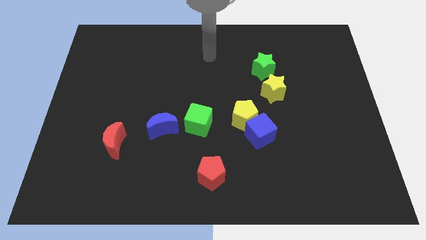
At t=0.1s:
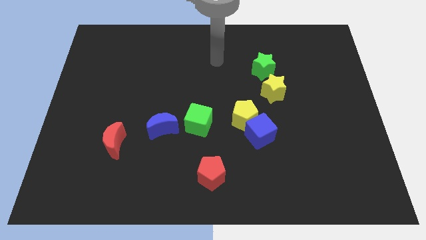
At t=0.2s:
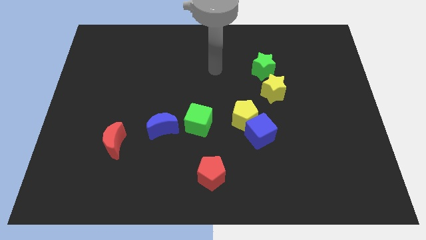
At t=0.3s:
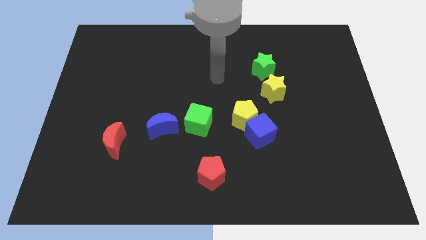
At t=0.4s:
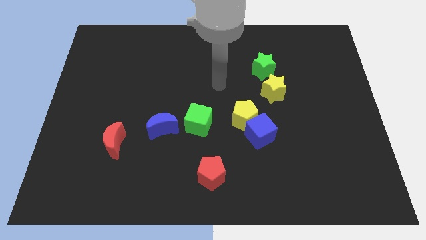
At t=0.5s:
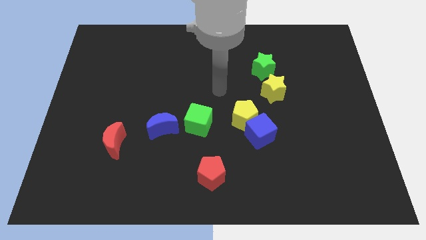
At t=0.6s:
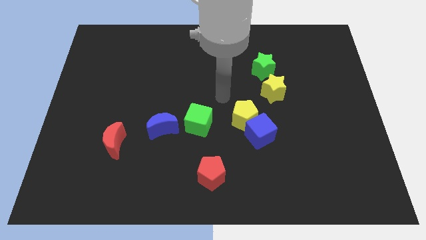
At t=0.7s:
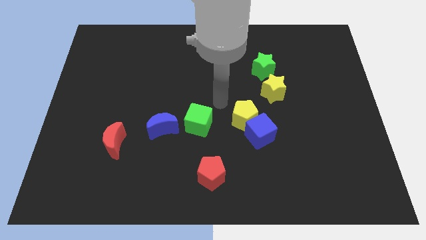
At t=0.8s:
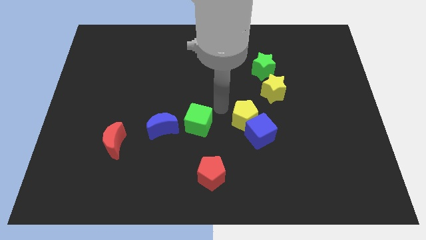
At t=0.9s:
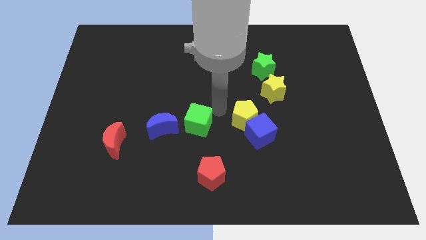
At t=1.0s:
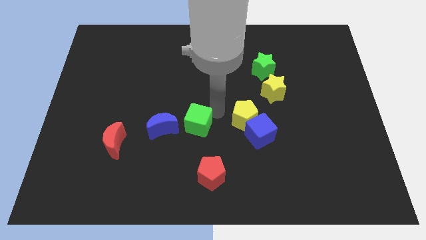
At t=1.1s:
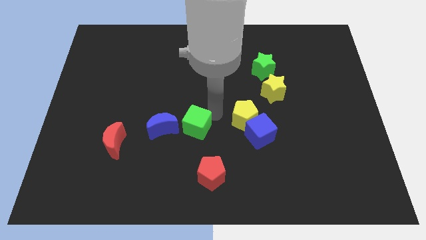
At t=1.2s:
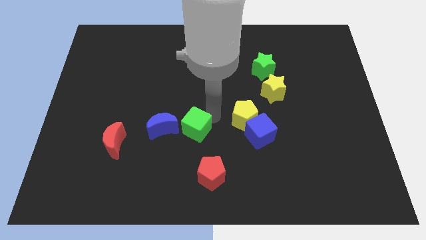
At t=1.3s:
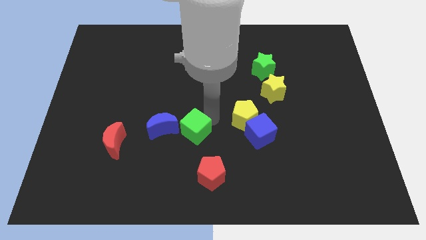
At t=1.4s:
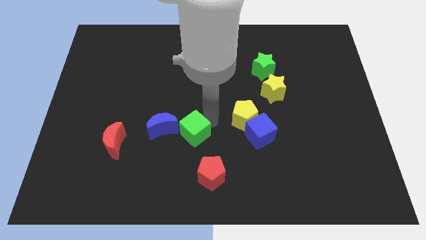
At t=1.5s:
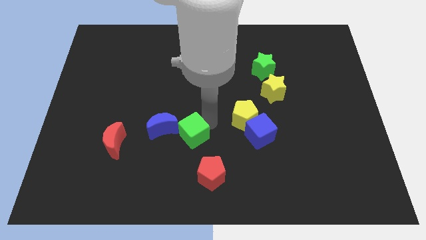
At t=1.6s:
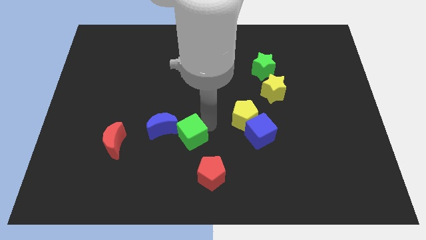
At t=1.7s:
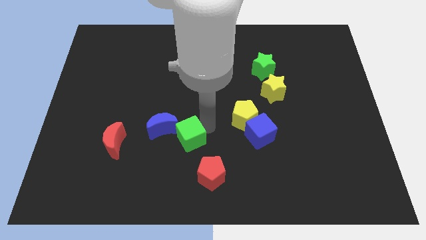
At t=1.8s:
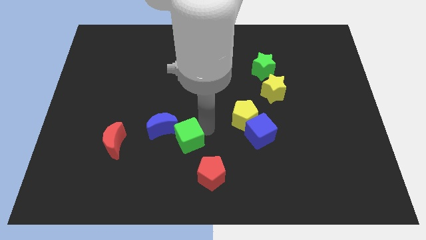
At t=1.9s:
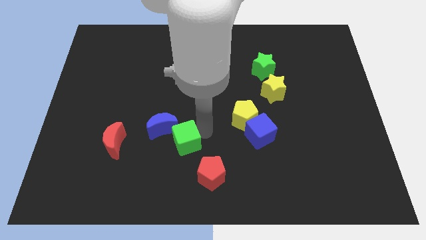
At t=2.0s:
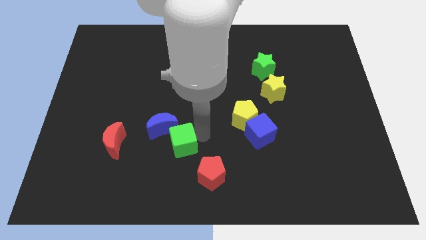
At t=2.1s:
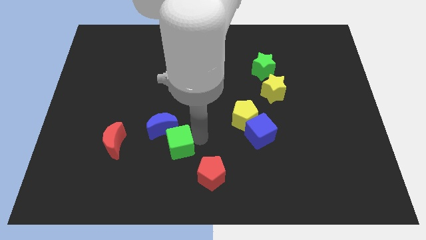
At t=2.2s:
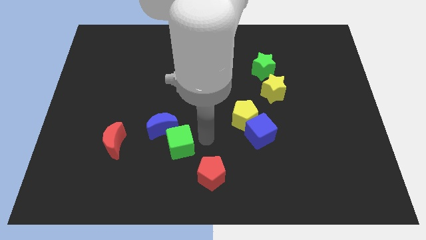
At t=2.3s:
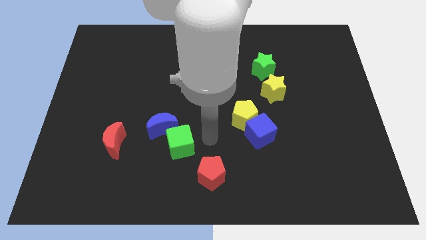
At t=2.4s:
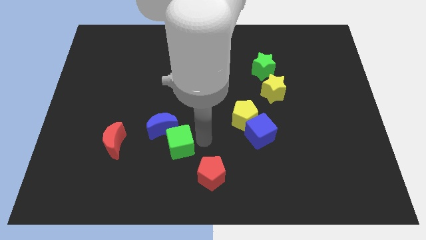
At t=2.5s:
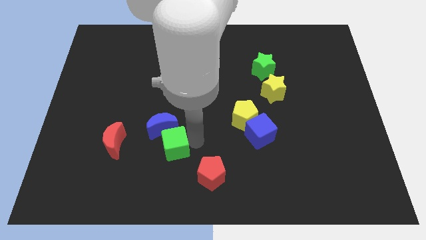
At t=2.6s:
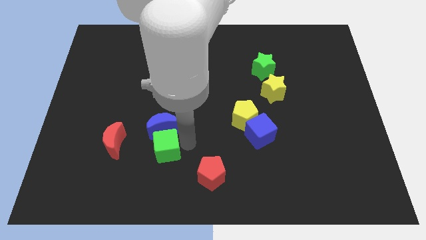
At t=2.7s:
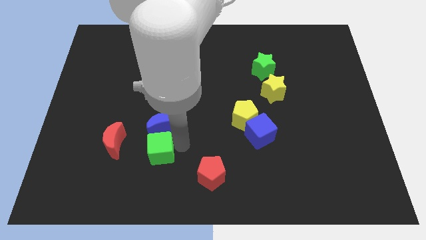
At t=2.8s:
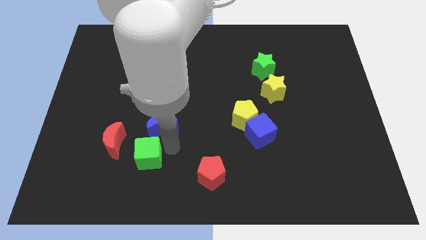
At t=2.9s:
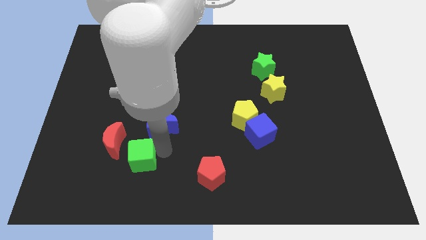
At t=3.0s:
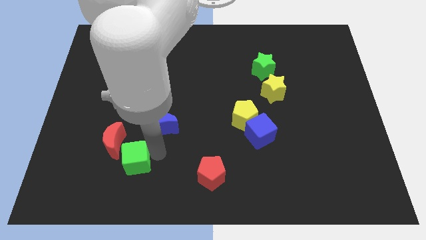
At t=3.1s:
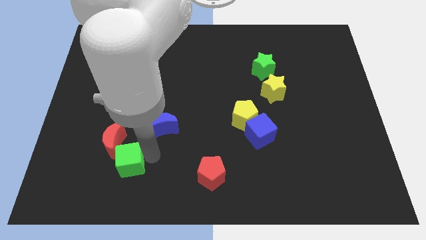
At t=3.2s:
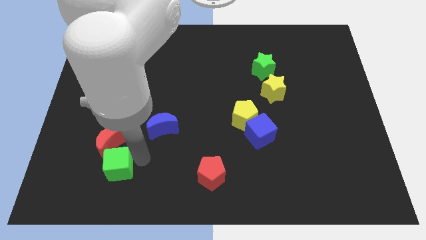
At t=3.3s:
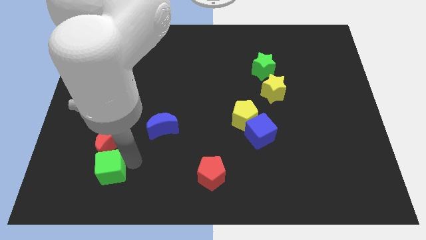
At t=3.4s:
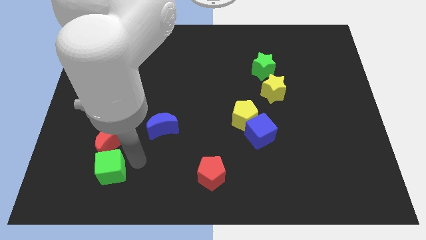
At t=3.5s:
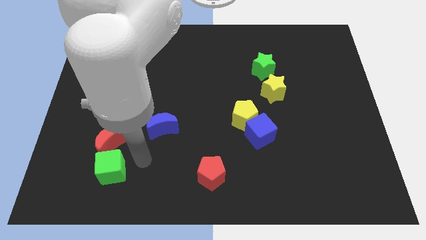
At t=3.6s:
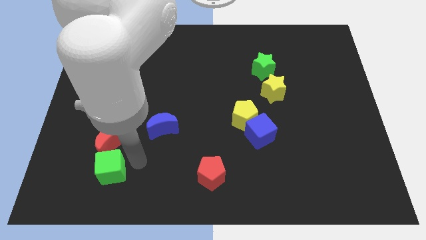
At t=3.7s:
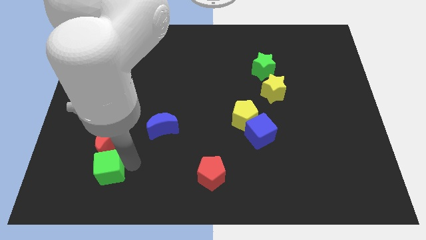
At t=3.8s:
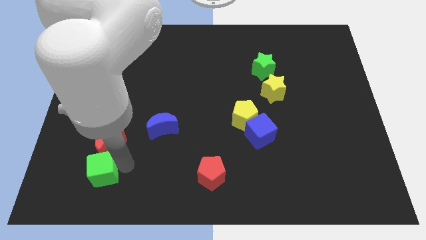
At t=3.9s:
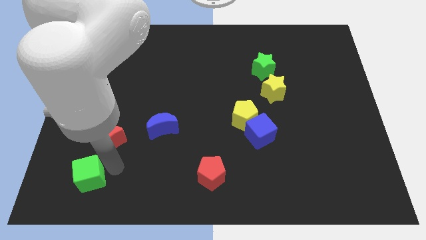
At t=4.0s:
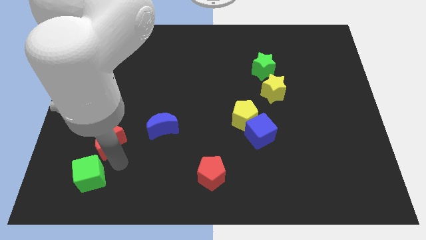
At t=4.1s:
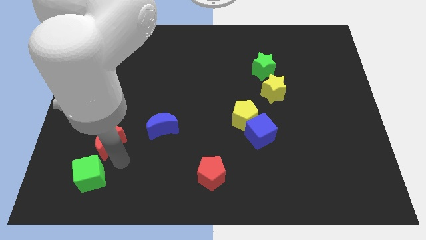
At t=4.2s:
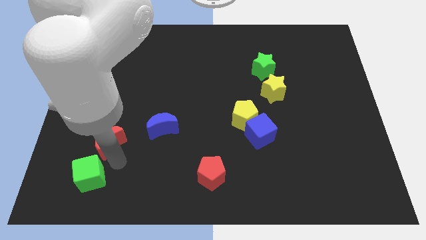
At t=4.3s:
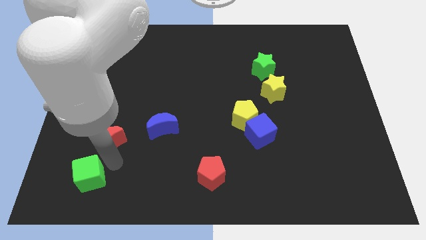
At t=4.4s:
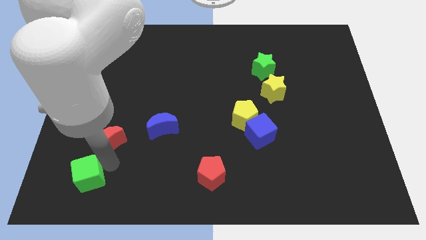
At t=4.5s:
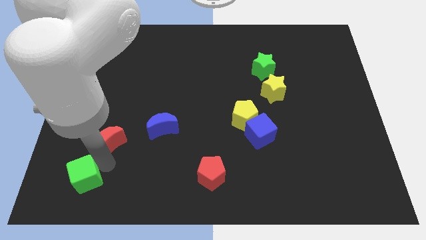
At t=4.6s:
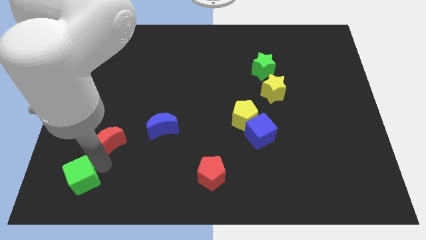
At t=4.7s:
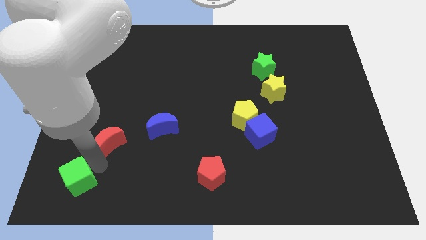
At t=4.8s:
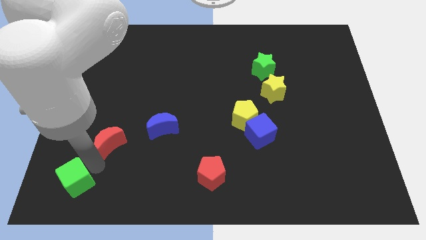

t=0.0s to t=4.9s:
slide the green cube to the bottom left corner

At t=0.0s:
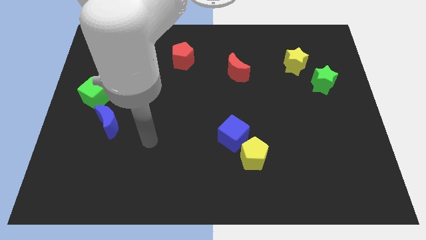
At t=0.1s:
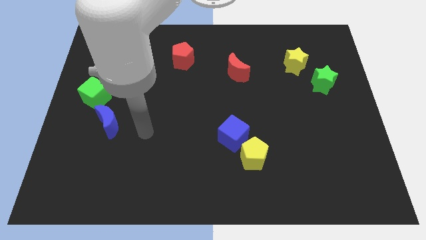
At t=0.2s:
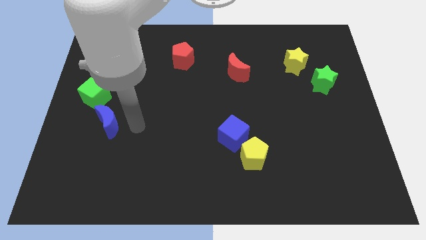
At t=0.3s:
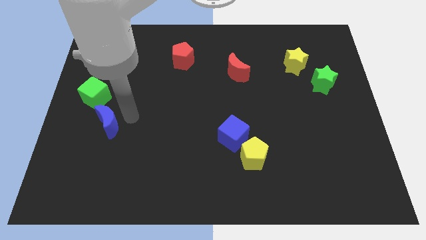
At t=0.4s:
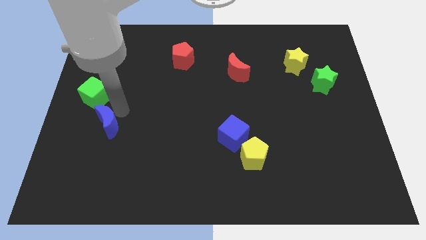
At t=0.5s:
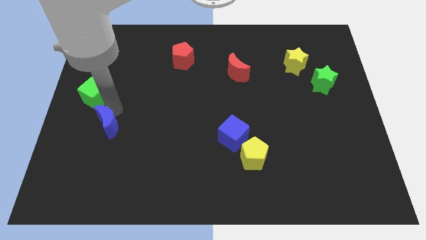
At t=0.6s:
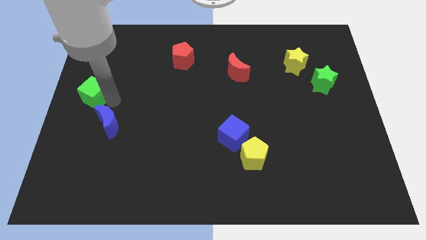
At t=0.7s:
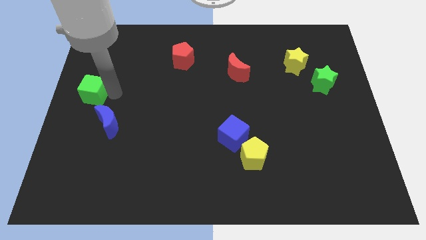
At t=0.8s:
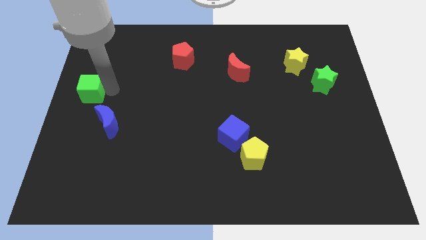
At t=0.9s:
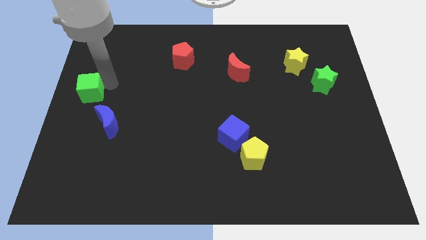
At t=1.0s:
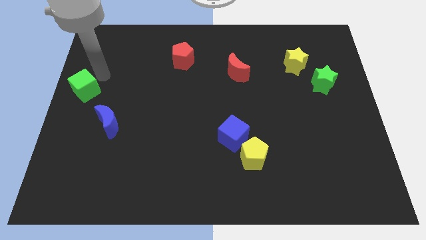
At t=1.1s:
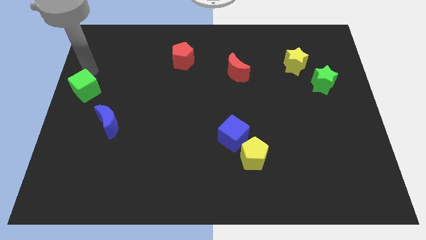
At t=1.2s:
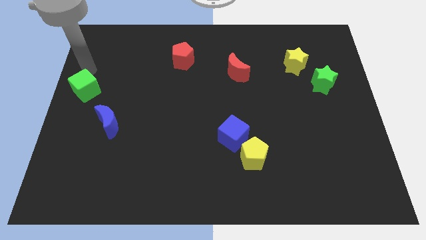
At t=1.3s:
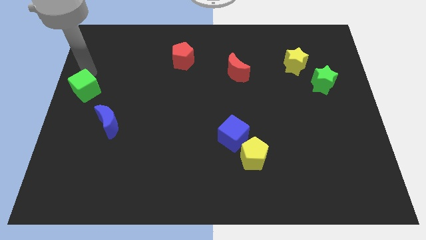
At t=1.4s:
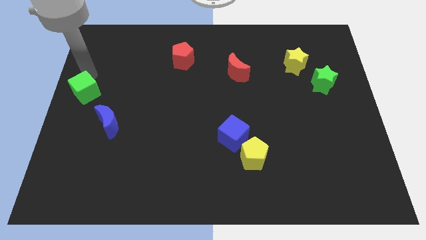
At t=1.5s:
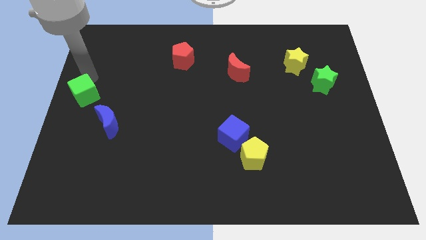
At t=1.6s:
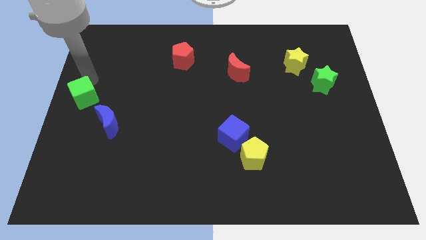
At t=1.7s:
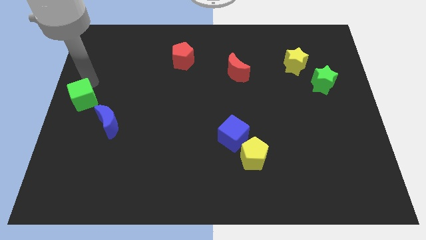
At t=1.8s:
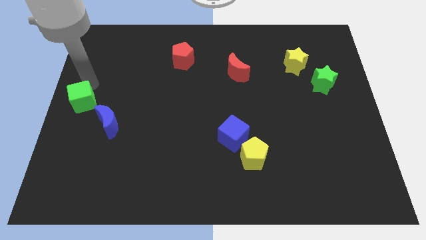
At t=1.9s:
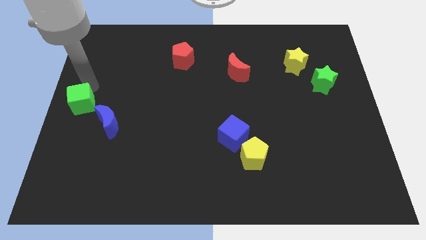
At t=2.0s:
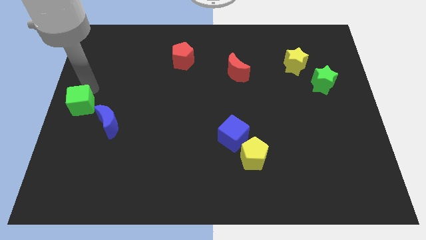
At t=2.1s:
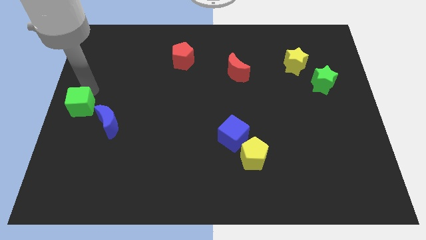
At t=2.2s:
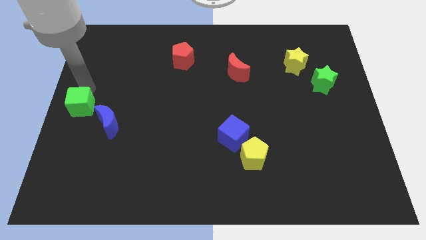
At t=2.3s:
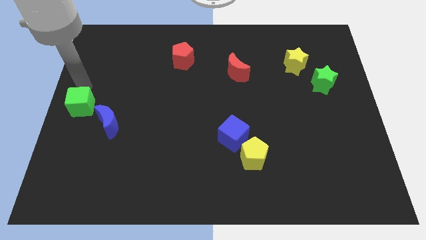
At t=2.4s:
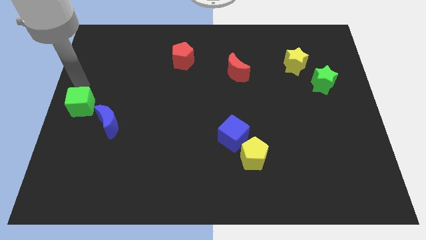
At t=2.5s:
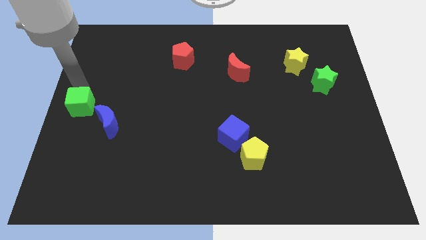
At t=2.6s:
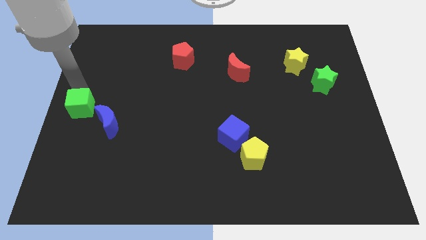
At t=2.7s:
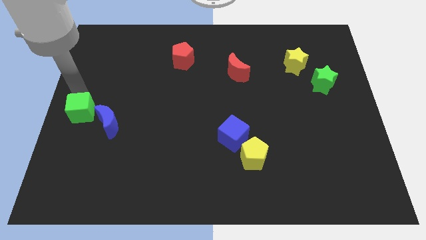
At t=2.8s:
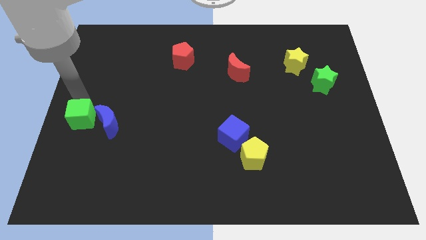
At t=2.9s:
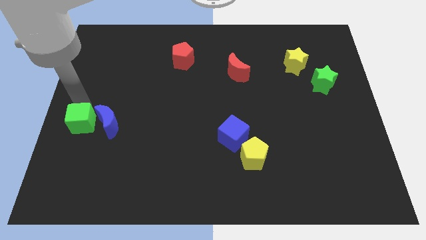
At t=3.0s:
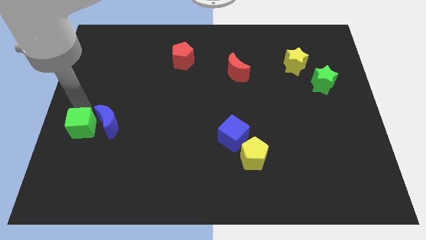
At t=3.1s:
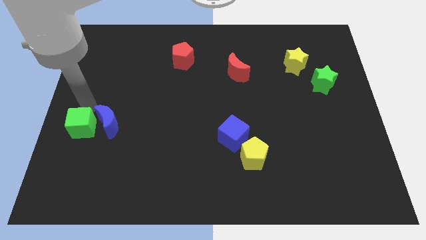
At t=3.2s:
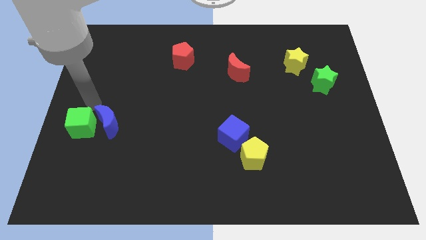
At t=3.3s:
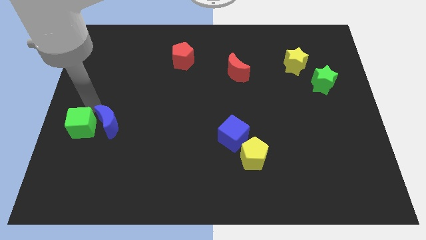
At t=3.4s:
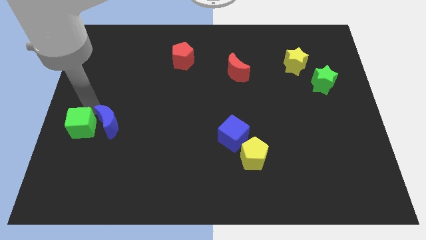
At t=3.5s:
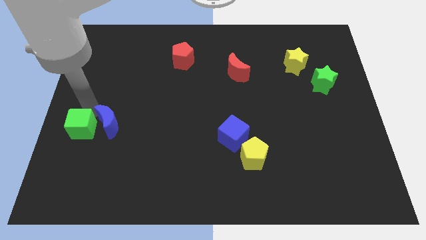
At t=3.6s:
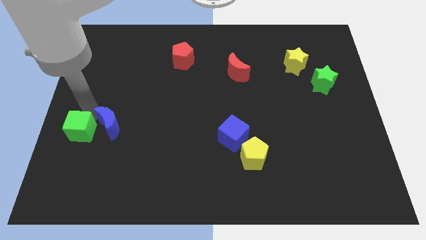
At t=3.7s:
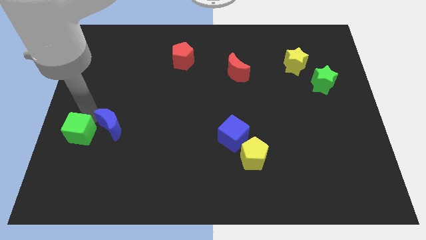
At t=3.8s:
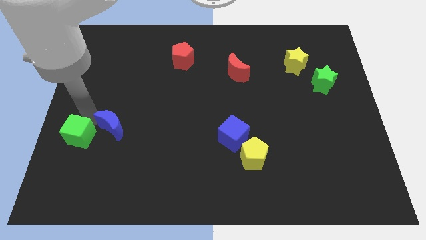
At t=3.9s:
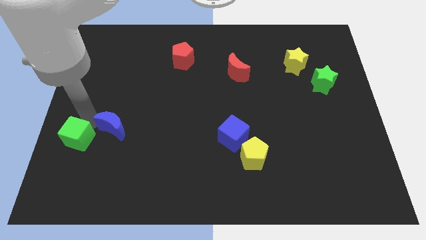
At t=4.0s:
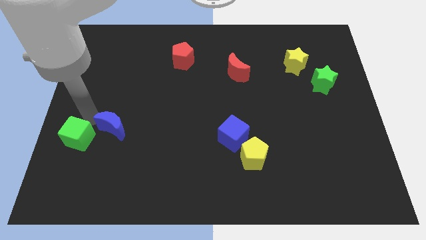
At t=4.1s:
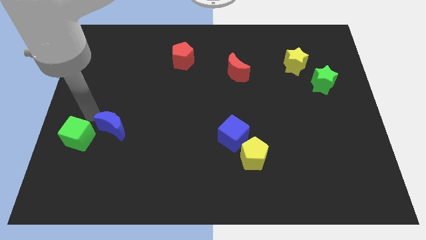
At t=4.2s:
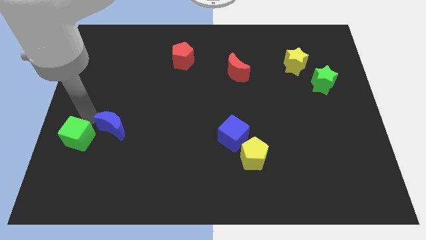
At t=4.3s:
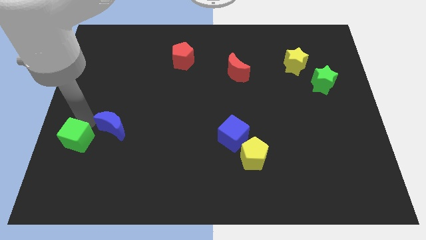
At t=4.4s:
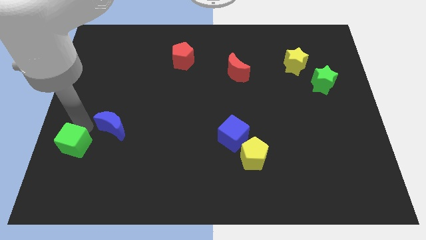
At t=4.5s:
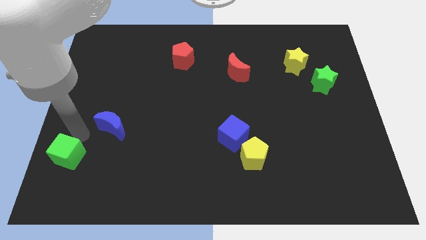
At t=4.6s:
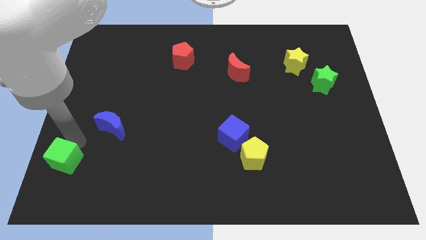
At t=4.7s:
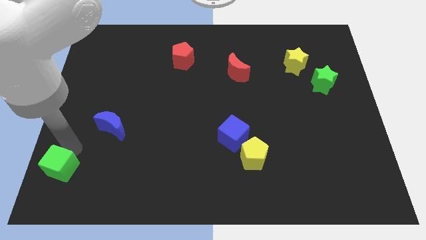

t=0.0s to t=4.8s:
push the green cube to the lower left corner
